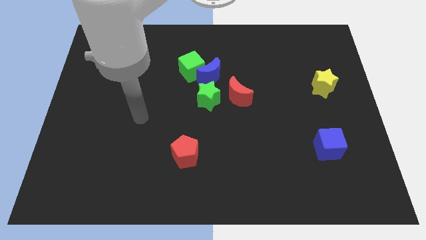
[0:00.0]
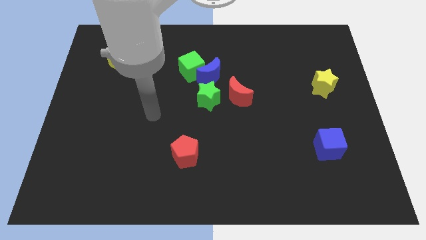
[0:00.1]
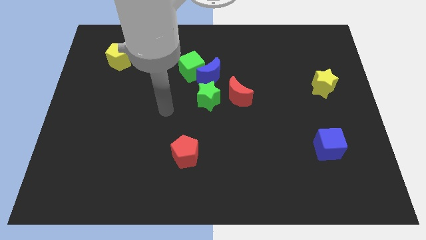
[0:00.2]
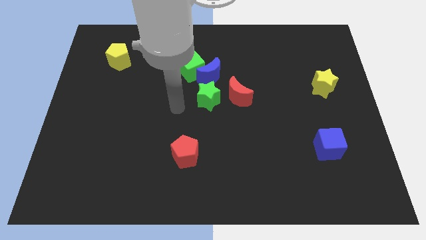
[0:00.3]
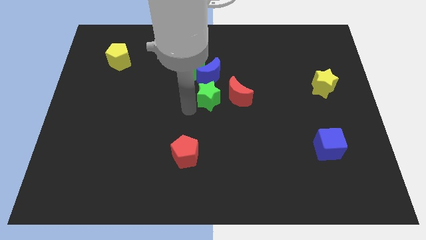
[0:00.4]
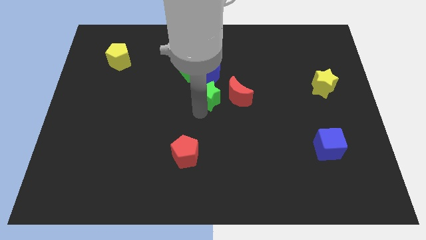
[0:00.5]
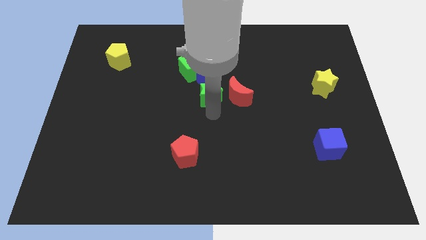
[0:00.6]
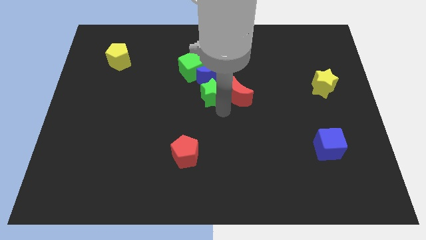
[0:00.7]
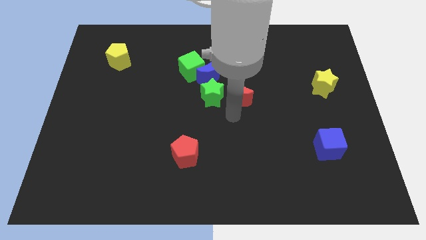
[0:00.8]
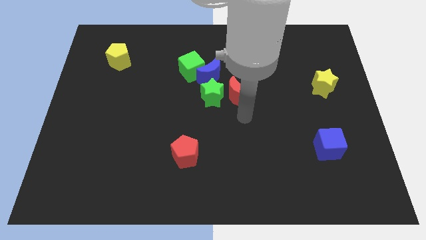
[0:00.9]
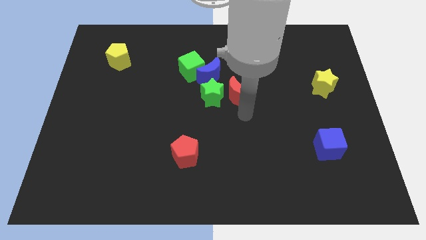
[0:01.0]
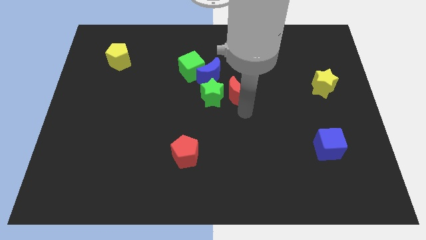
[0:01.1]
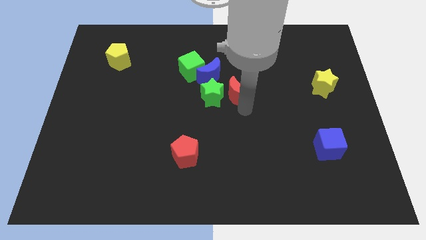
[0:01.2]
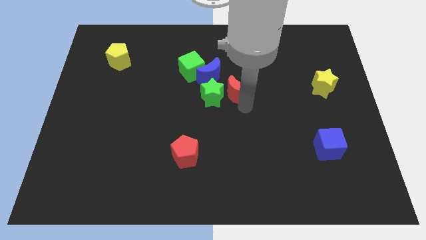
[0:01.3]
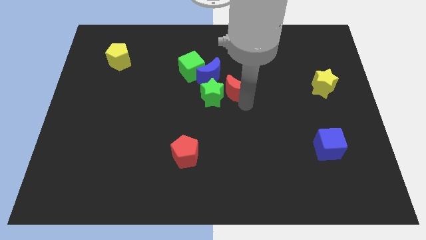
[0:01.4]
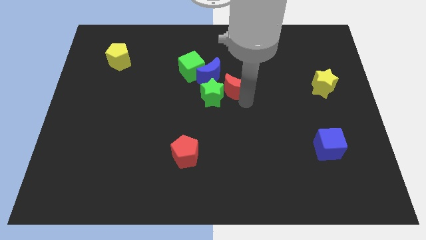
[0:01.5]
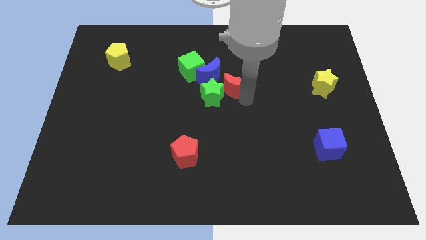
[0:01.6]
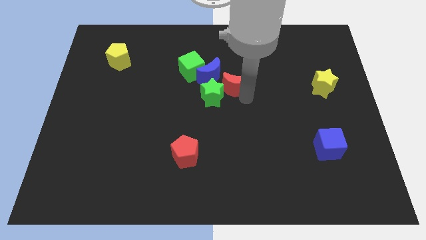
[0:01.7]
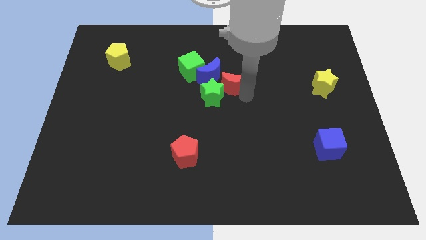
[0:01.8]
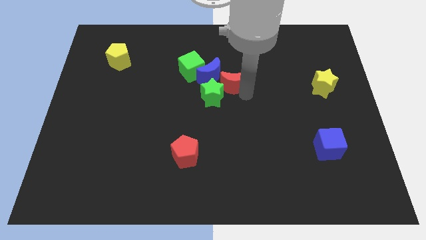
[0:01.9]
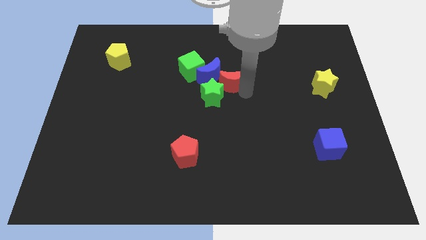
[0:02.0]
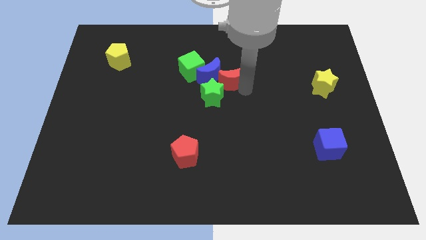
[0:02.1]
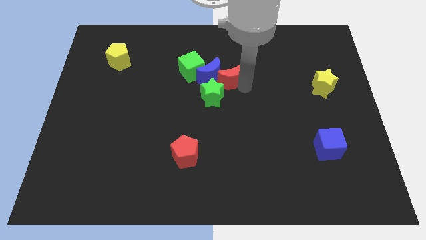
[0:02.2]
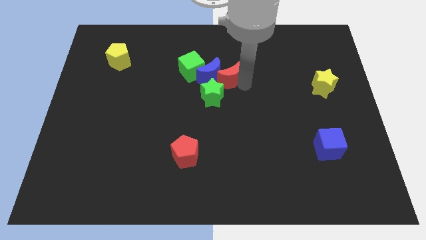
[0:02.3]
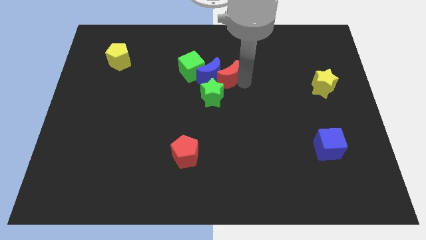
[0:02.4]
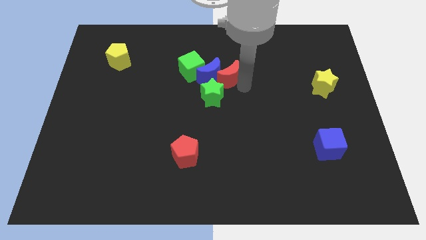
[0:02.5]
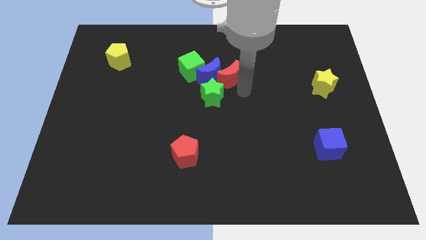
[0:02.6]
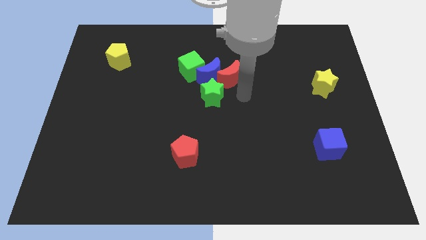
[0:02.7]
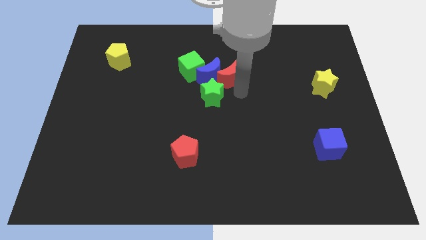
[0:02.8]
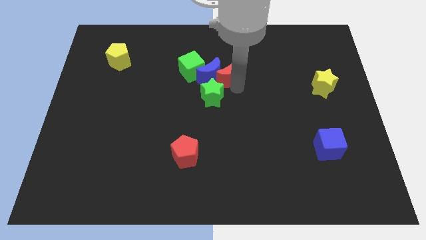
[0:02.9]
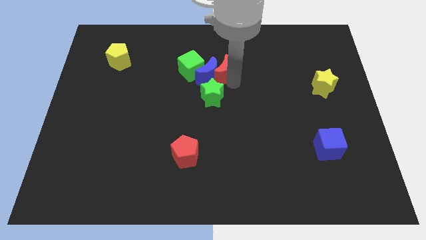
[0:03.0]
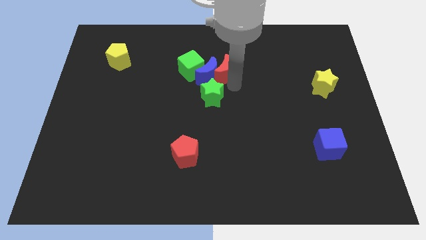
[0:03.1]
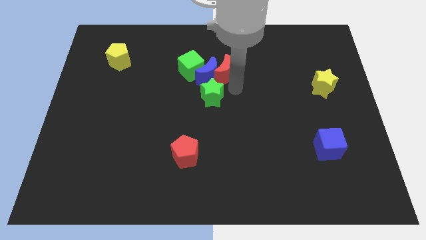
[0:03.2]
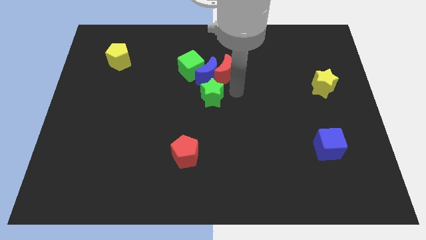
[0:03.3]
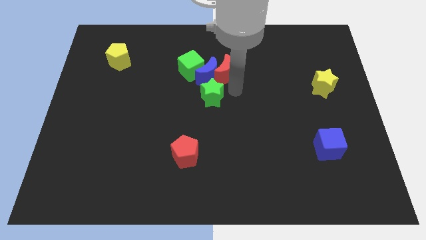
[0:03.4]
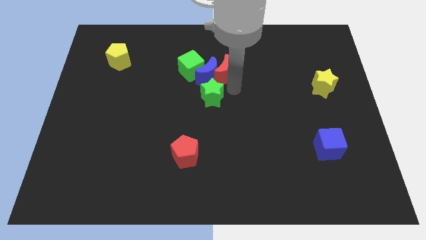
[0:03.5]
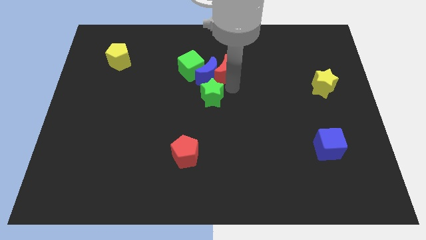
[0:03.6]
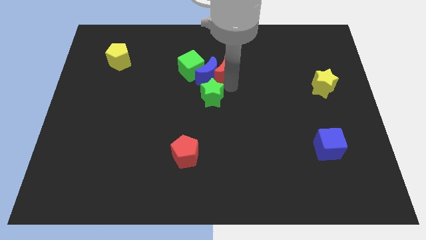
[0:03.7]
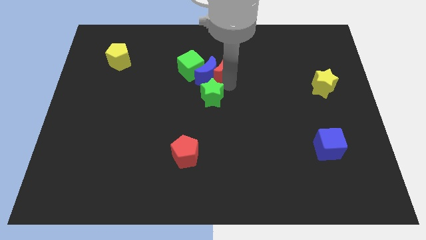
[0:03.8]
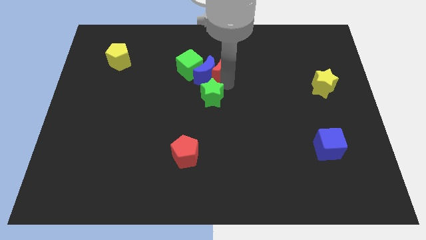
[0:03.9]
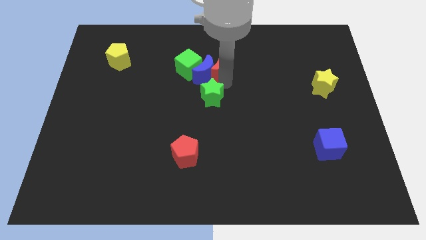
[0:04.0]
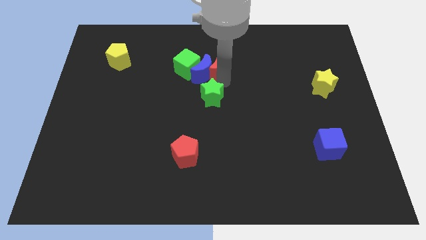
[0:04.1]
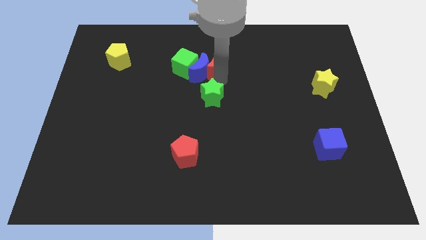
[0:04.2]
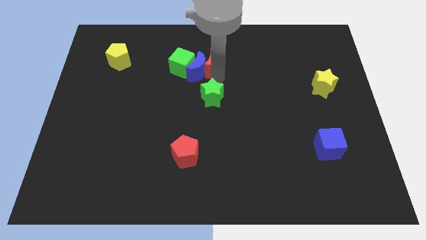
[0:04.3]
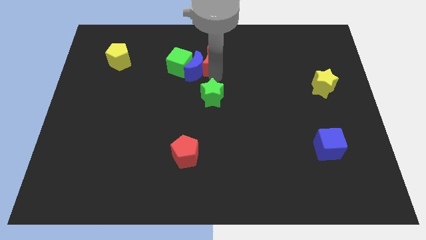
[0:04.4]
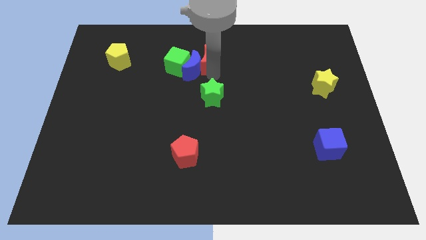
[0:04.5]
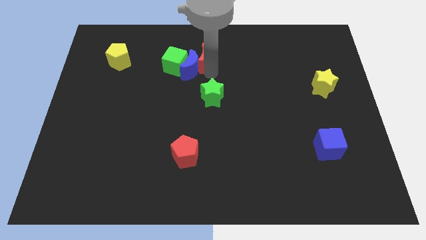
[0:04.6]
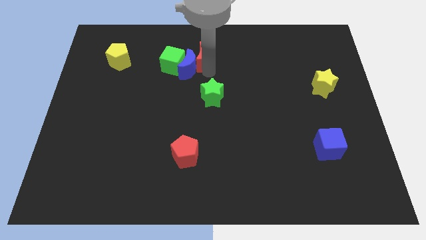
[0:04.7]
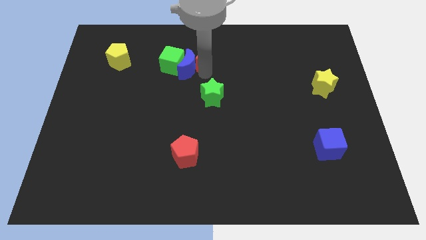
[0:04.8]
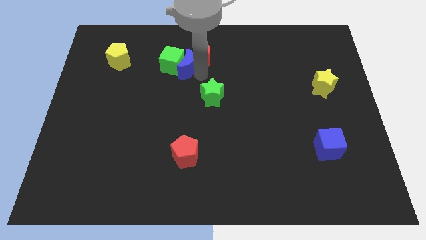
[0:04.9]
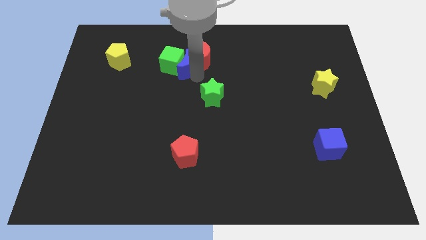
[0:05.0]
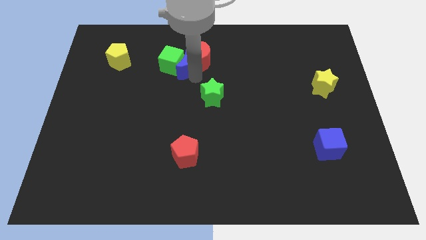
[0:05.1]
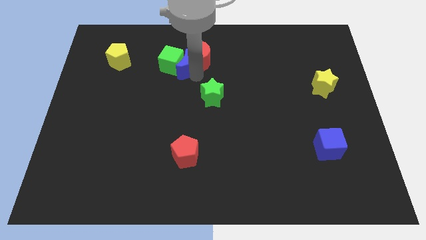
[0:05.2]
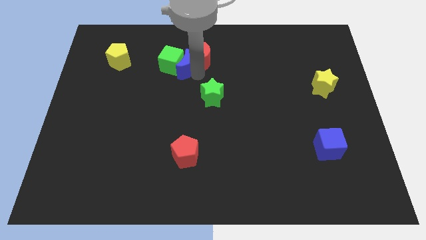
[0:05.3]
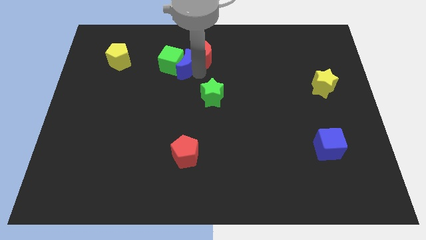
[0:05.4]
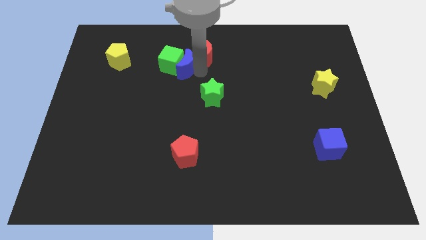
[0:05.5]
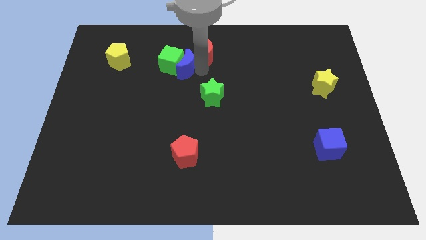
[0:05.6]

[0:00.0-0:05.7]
move the red moon to the top side
